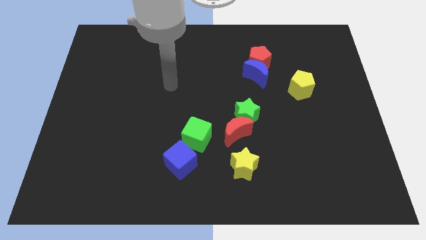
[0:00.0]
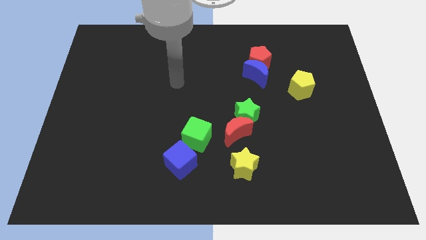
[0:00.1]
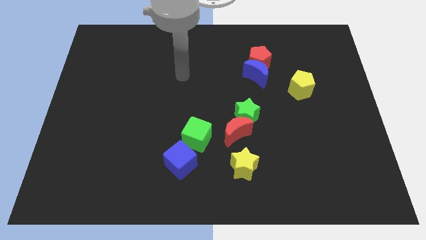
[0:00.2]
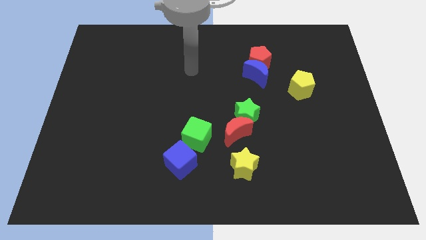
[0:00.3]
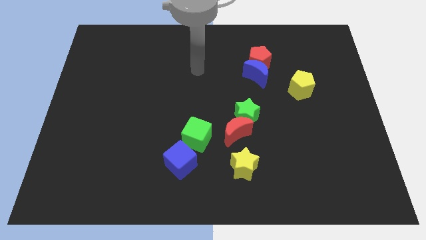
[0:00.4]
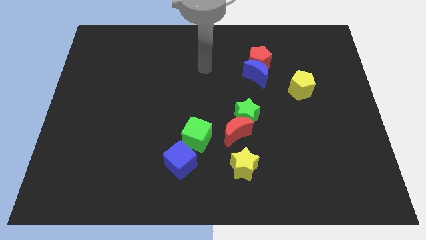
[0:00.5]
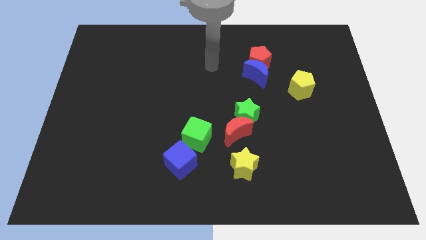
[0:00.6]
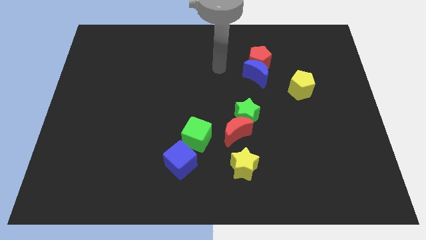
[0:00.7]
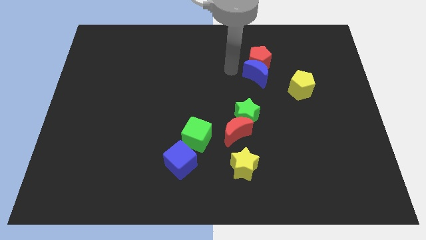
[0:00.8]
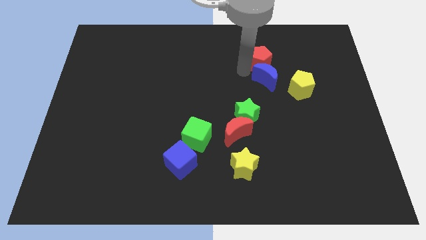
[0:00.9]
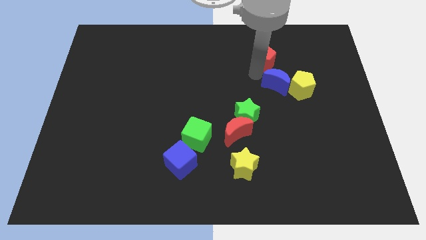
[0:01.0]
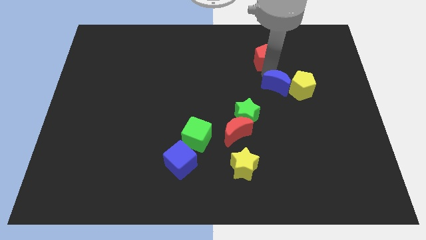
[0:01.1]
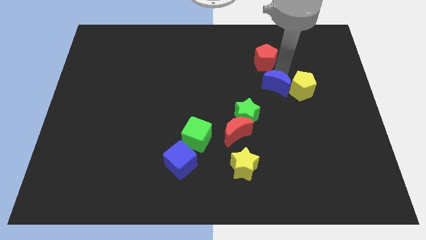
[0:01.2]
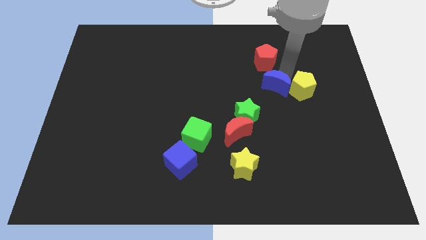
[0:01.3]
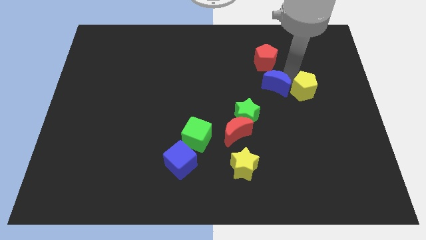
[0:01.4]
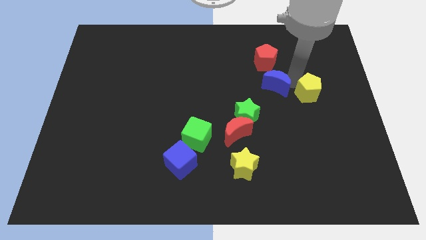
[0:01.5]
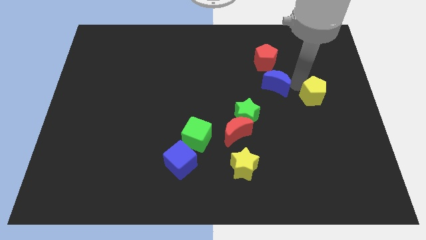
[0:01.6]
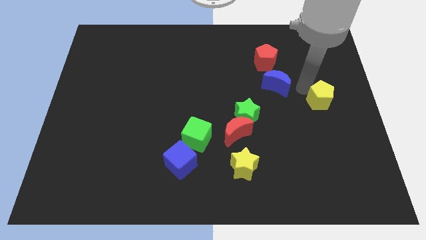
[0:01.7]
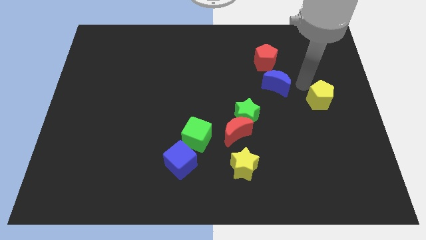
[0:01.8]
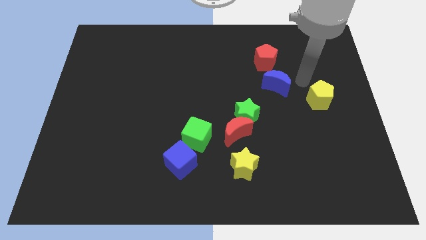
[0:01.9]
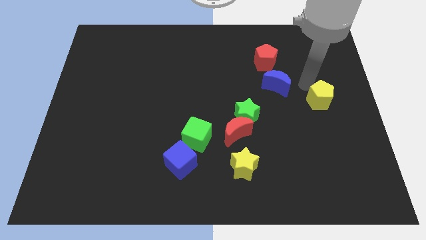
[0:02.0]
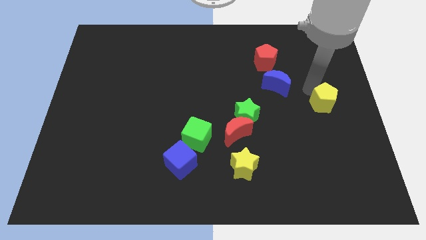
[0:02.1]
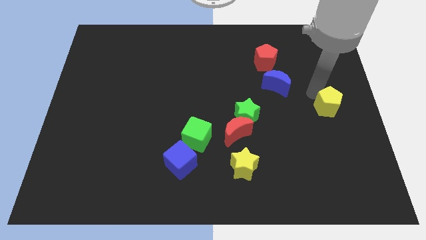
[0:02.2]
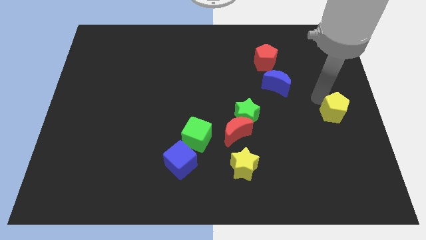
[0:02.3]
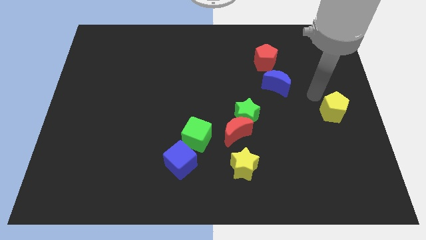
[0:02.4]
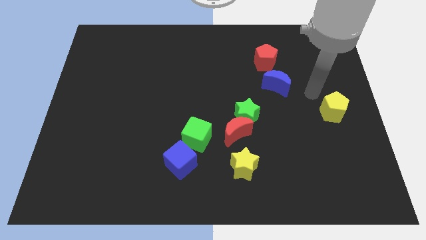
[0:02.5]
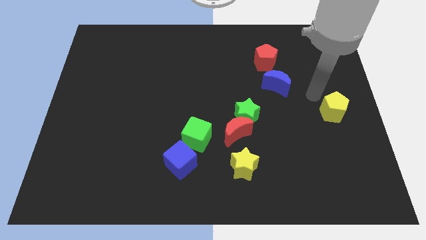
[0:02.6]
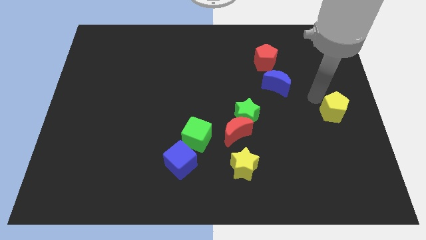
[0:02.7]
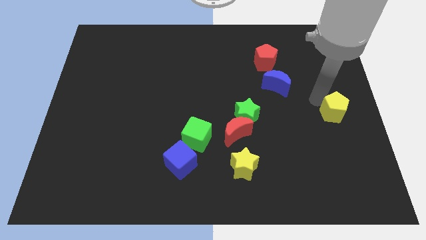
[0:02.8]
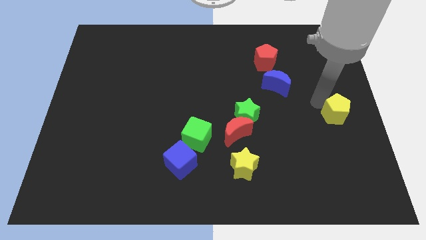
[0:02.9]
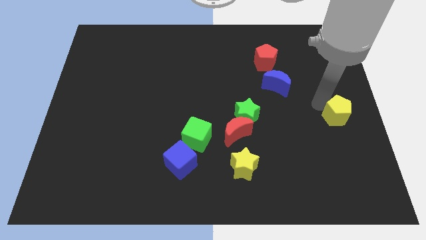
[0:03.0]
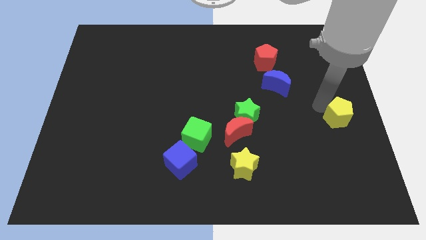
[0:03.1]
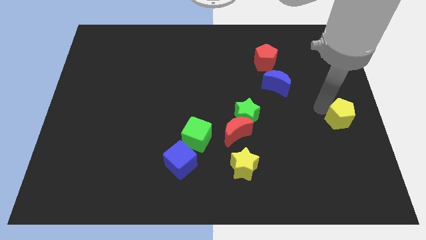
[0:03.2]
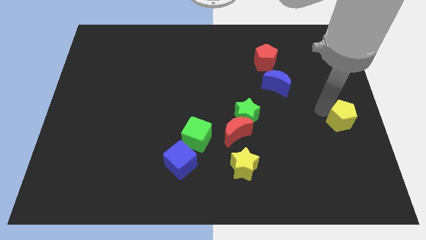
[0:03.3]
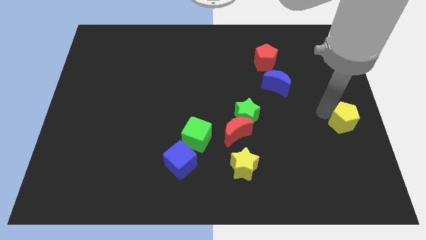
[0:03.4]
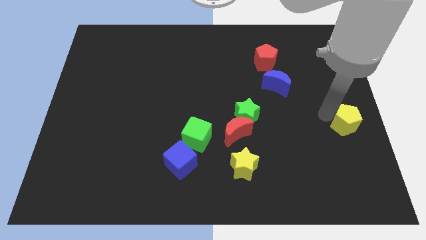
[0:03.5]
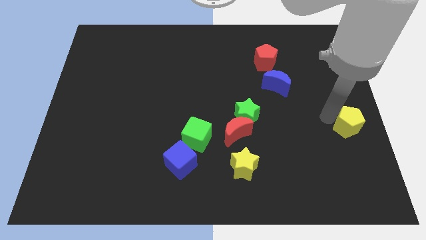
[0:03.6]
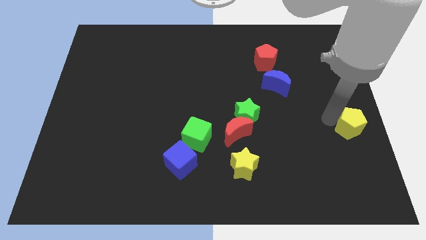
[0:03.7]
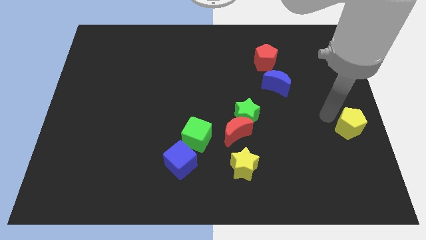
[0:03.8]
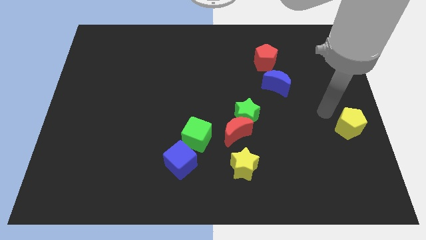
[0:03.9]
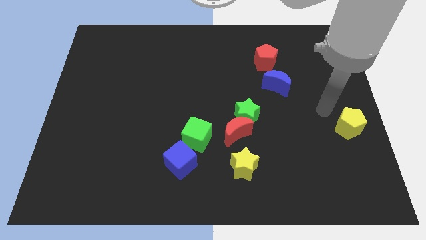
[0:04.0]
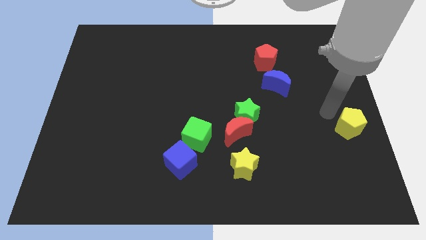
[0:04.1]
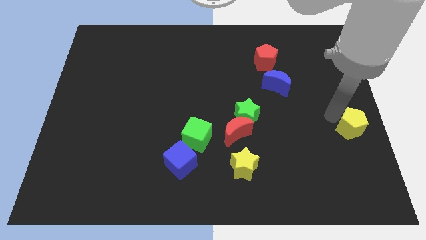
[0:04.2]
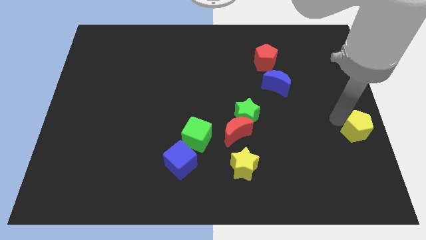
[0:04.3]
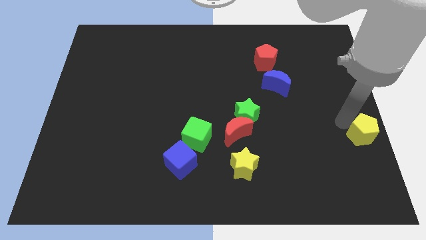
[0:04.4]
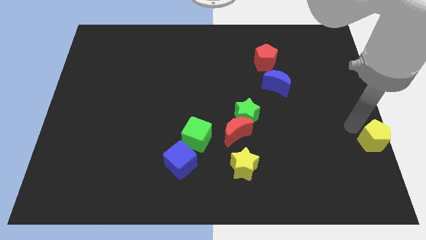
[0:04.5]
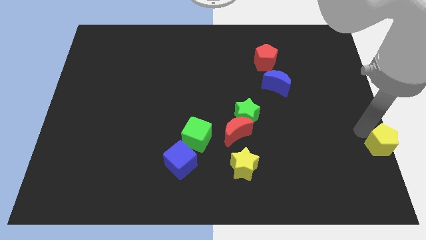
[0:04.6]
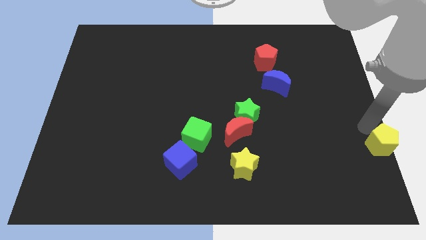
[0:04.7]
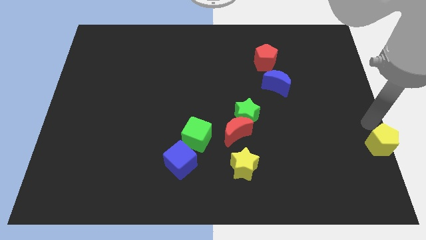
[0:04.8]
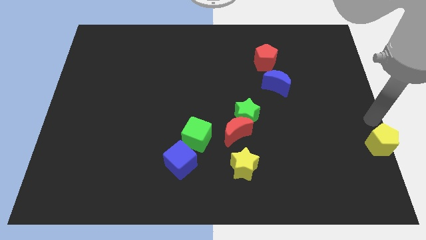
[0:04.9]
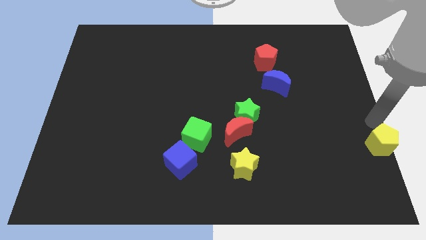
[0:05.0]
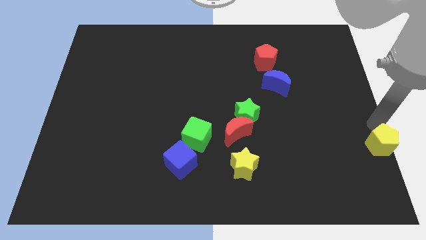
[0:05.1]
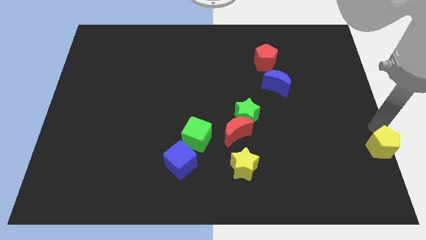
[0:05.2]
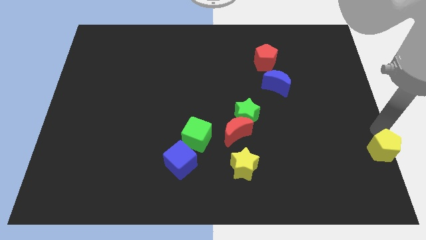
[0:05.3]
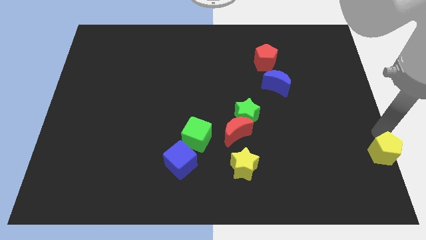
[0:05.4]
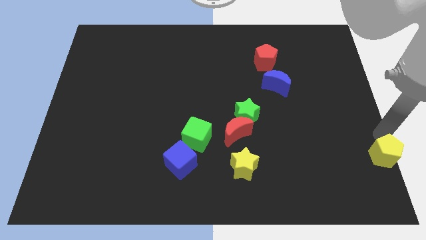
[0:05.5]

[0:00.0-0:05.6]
move the yellow pentagon to the bottom right of the board

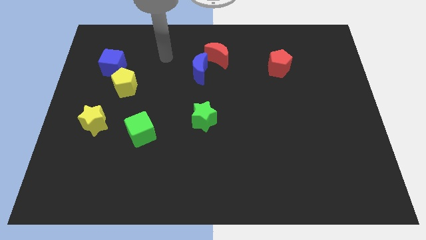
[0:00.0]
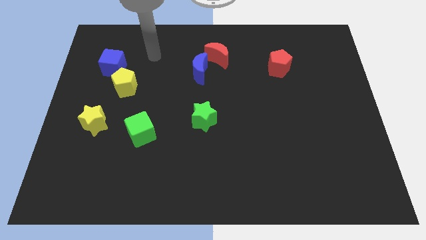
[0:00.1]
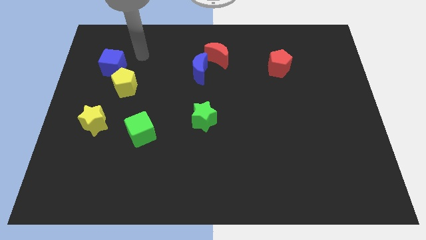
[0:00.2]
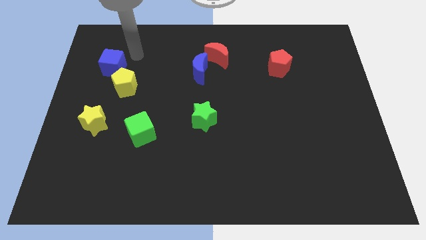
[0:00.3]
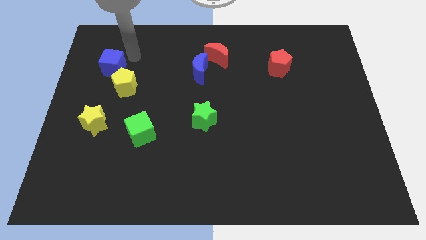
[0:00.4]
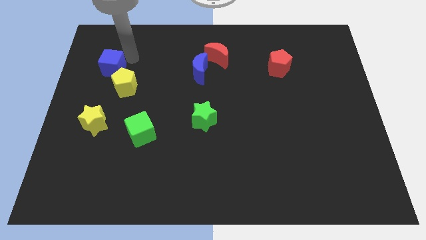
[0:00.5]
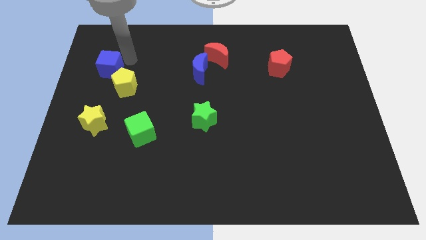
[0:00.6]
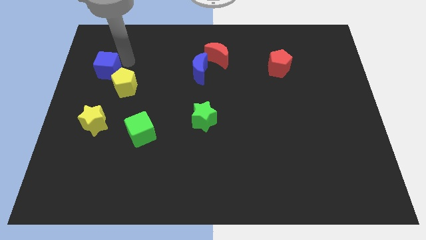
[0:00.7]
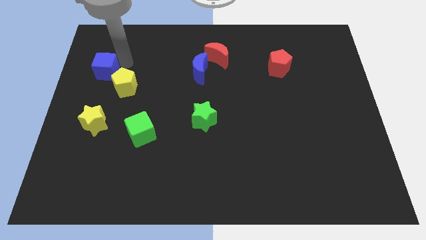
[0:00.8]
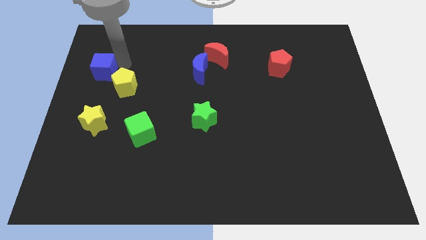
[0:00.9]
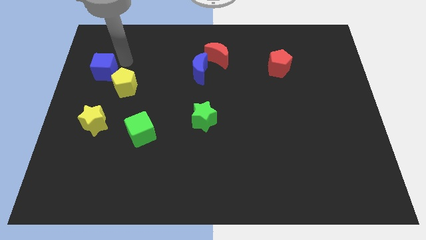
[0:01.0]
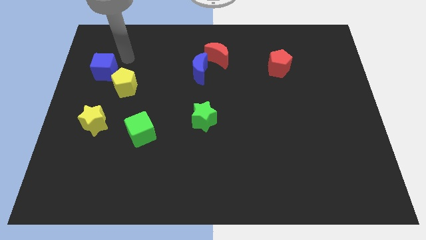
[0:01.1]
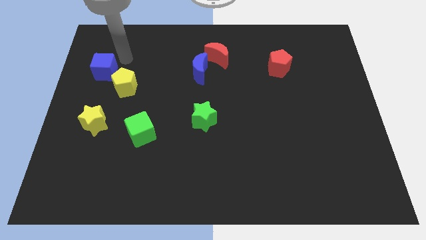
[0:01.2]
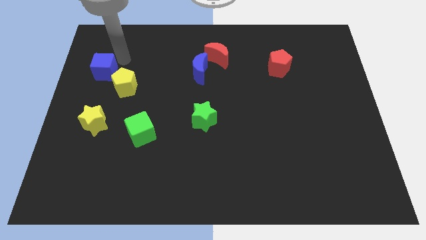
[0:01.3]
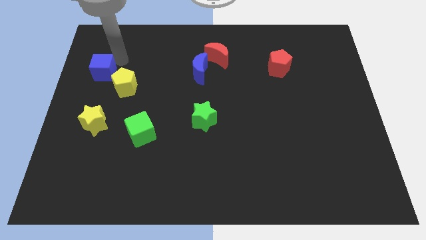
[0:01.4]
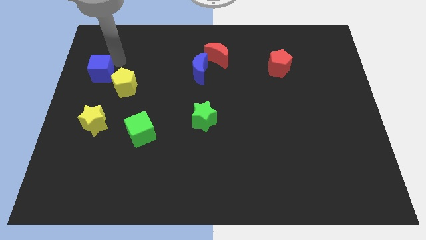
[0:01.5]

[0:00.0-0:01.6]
put the blue cube to the center left

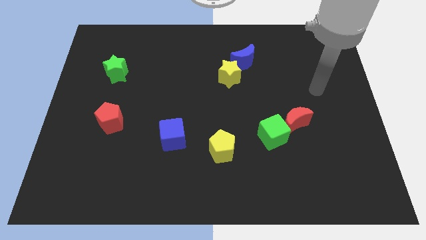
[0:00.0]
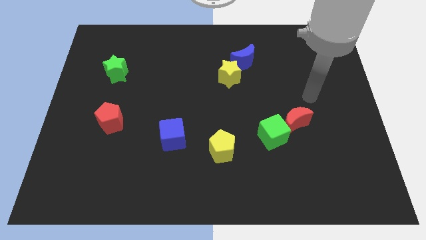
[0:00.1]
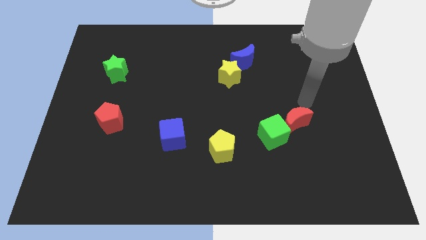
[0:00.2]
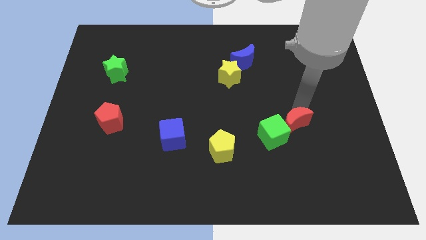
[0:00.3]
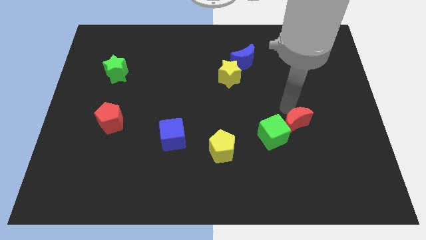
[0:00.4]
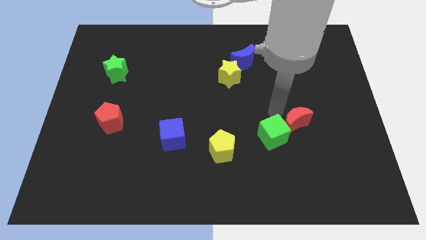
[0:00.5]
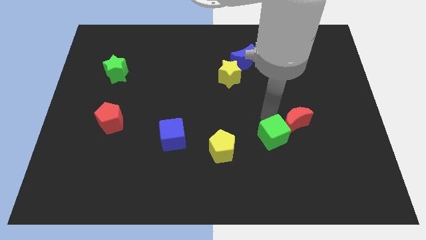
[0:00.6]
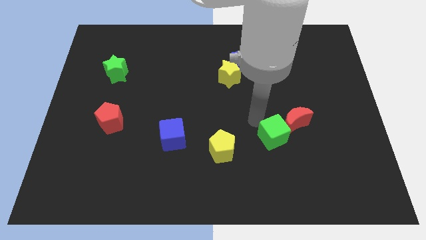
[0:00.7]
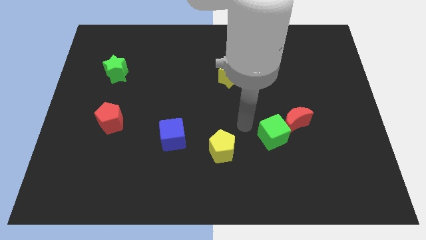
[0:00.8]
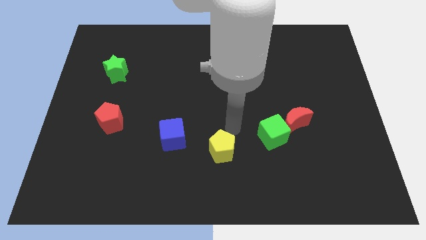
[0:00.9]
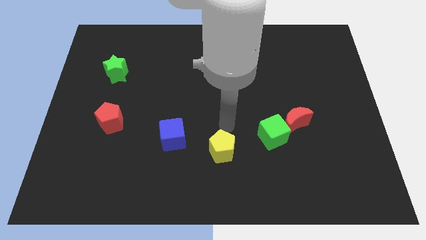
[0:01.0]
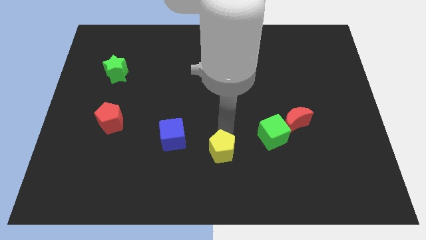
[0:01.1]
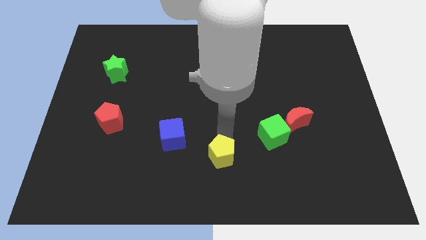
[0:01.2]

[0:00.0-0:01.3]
move the yellow pentagon to the bottom
